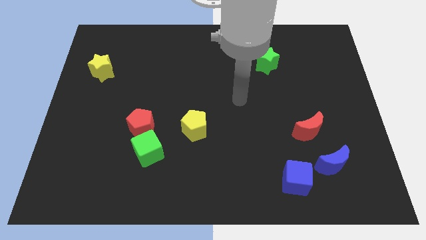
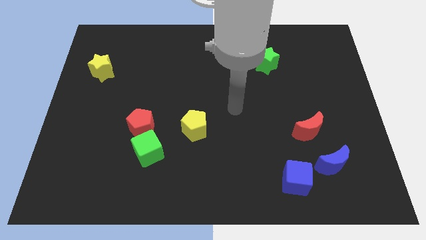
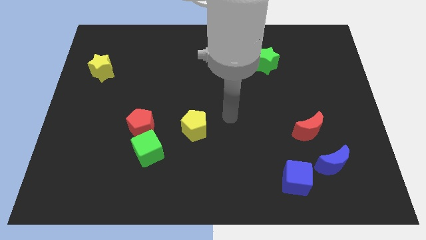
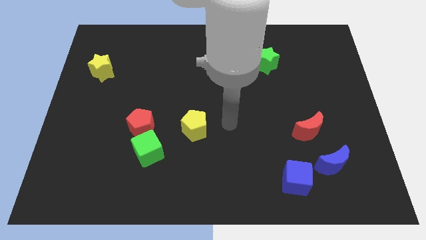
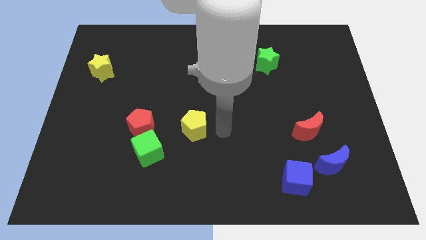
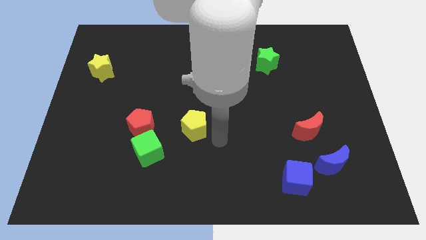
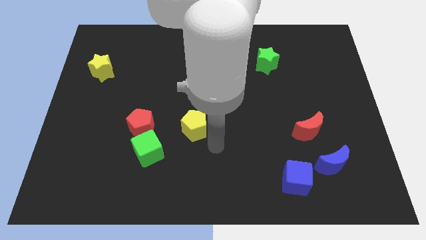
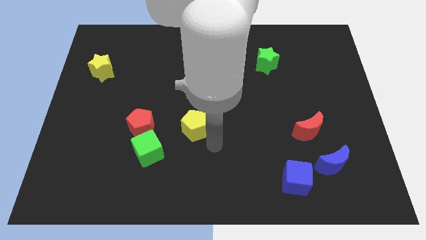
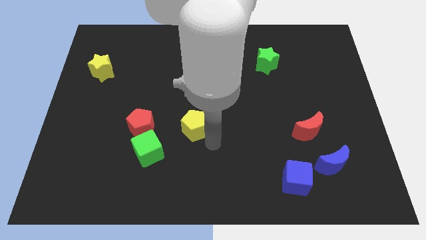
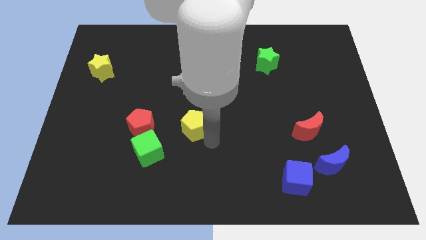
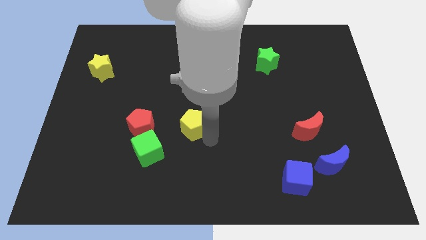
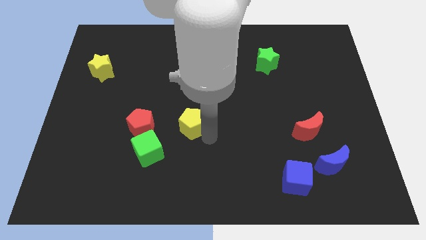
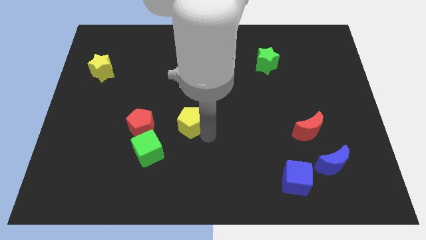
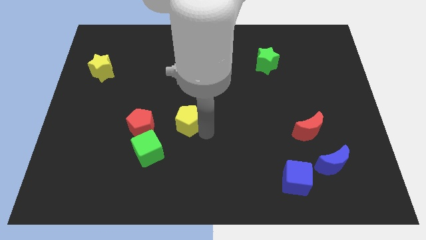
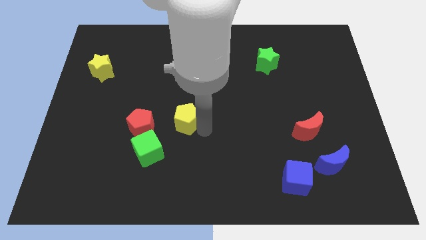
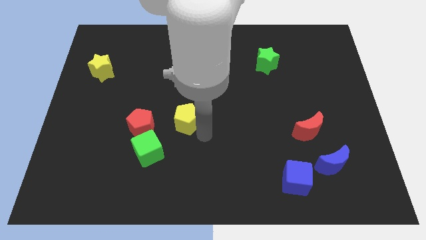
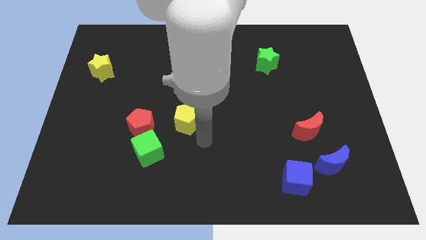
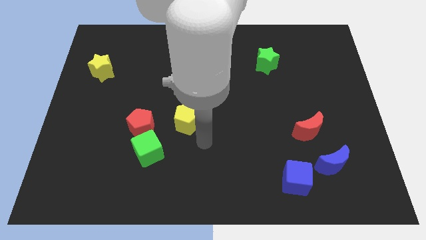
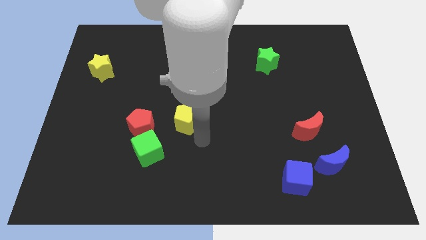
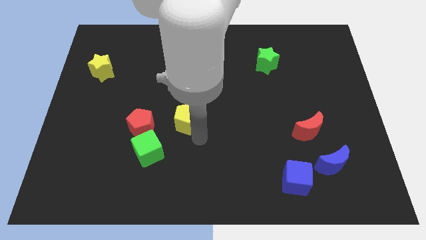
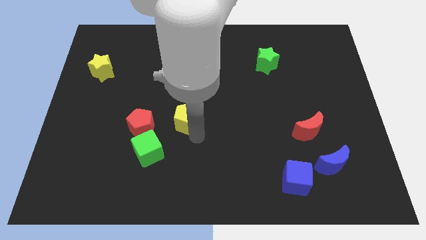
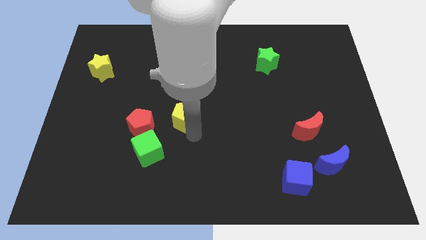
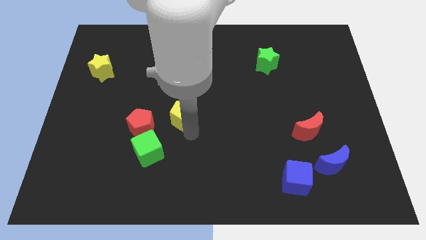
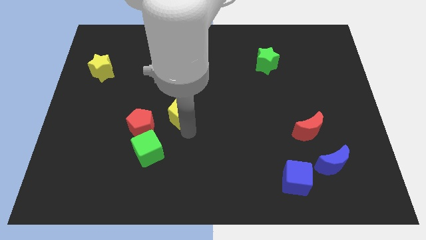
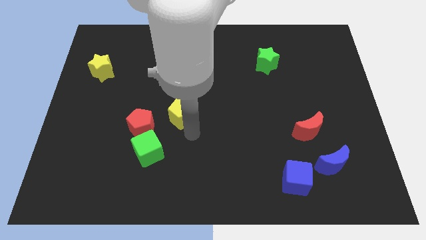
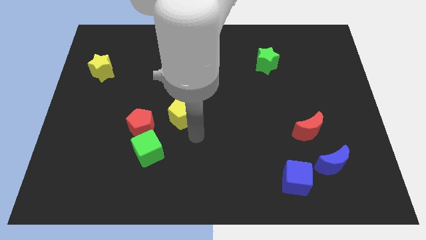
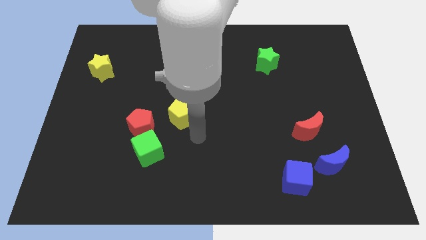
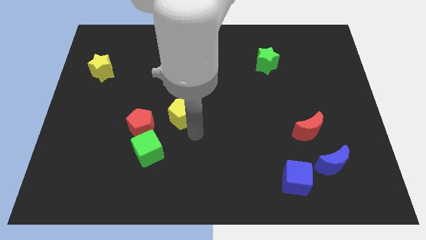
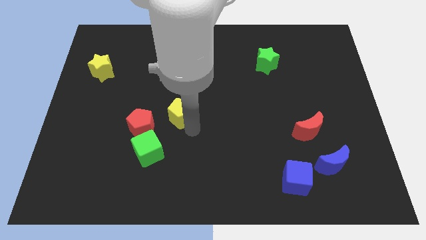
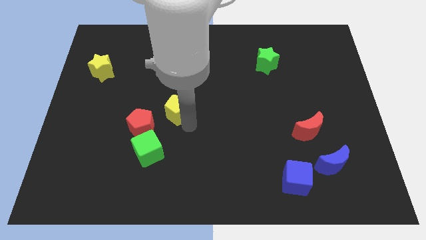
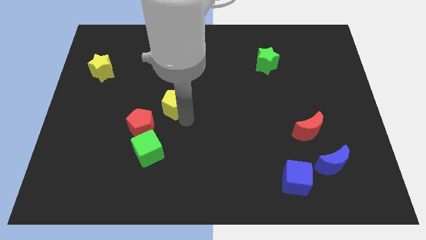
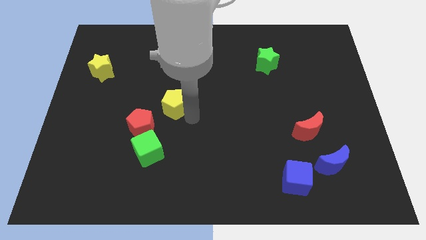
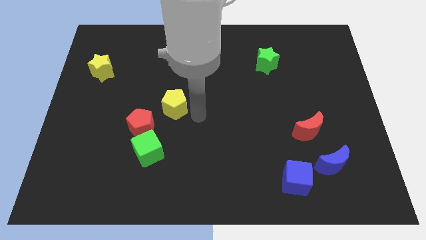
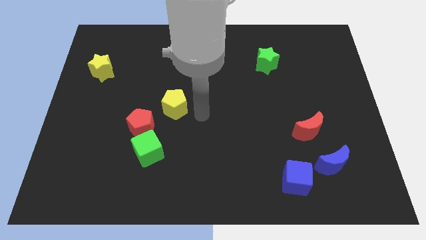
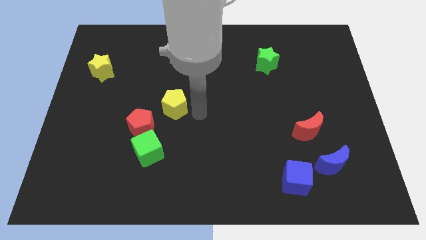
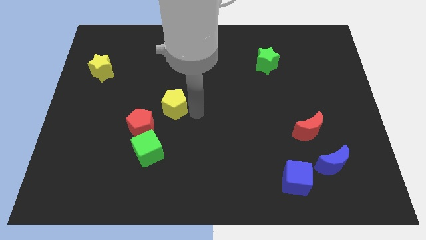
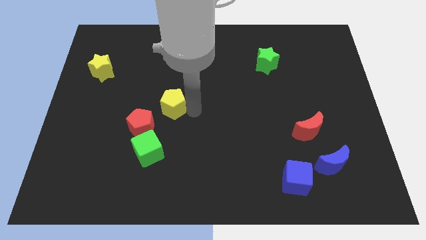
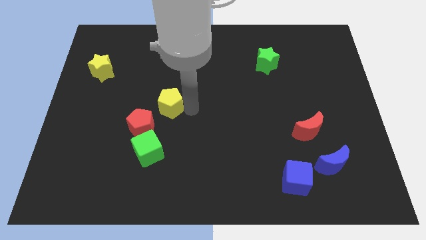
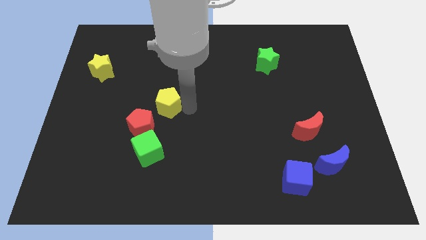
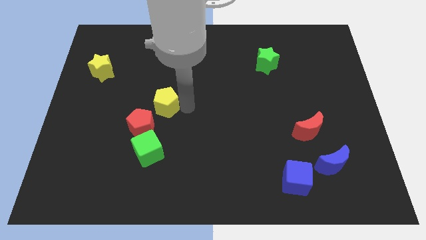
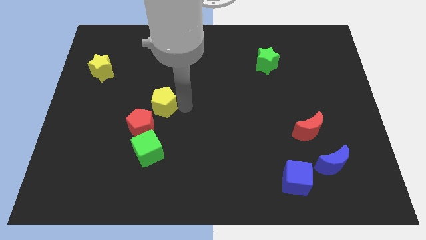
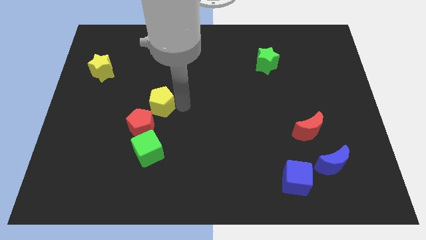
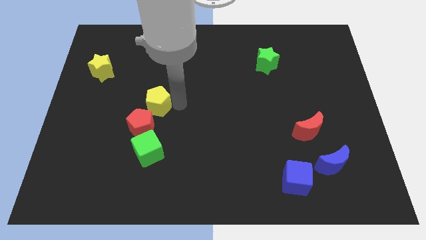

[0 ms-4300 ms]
slightly push the yellow pentagon left

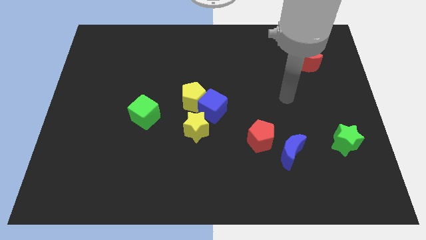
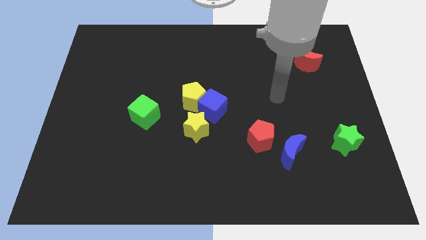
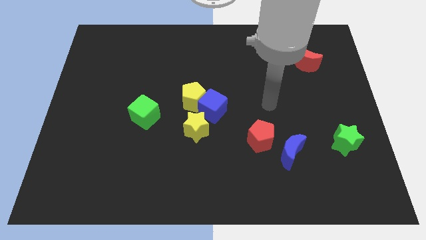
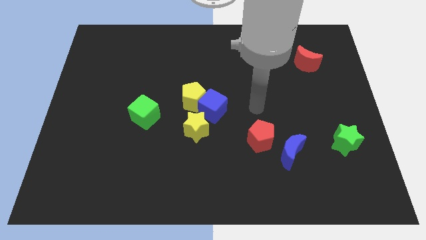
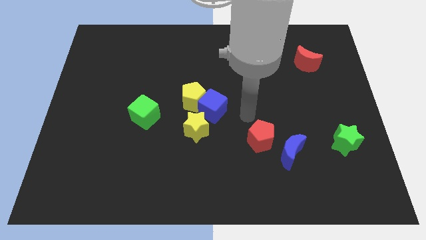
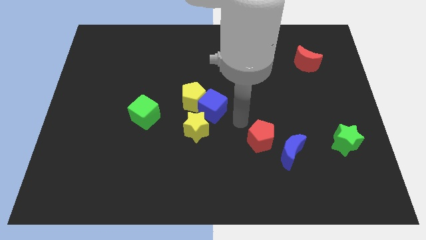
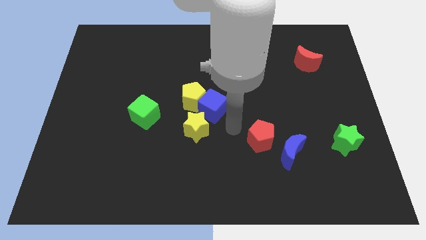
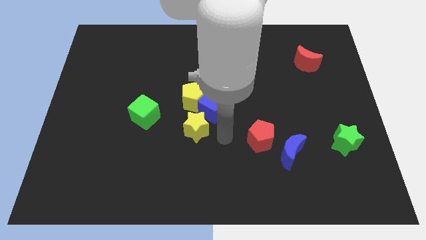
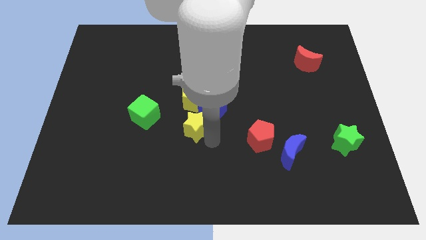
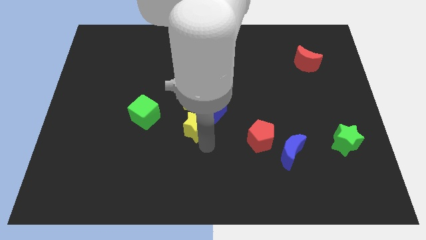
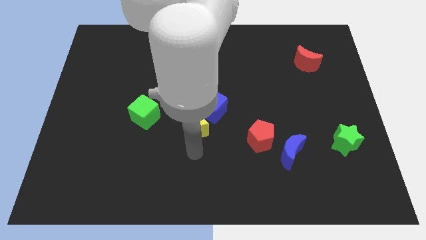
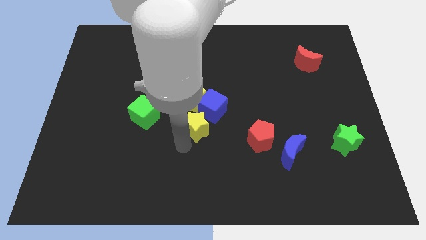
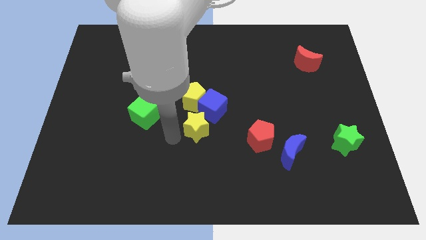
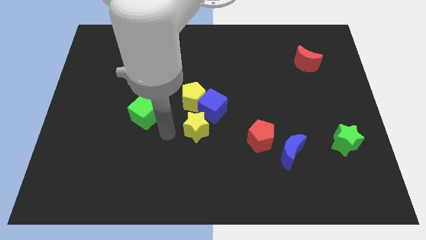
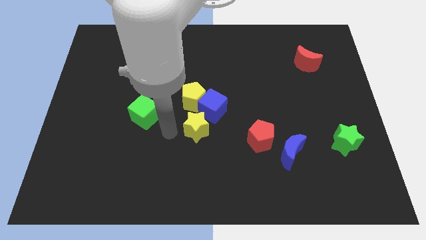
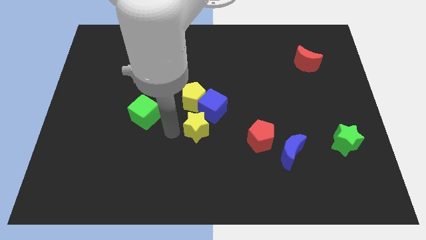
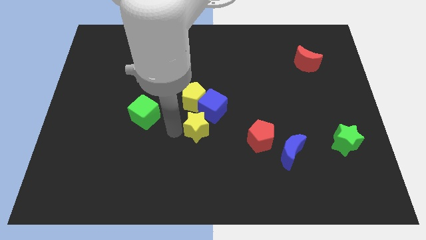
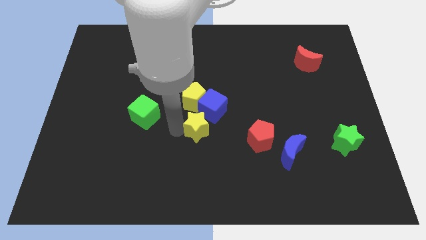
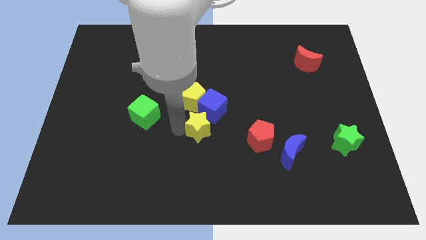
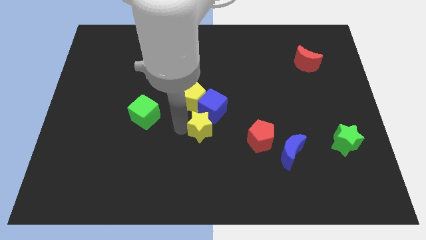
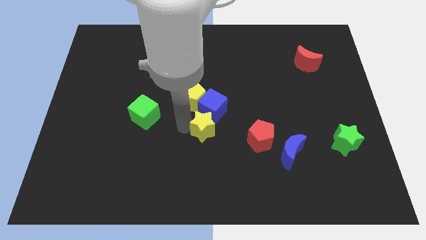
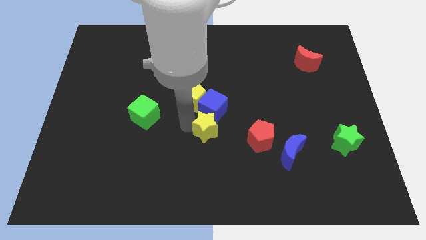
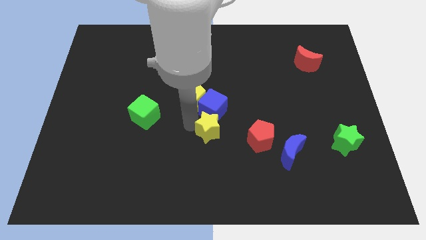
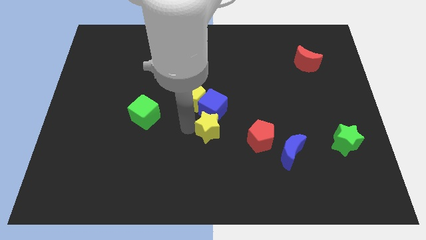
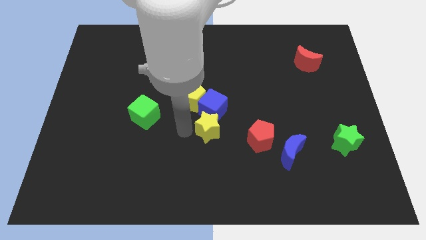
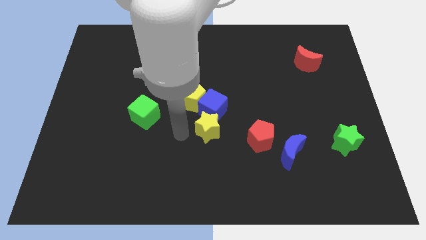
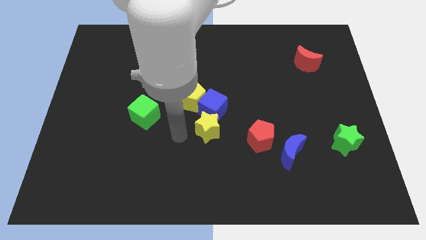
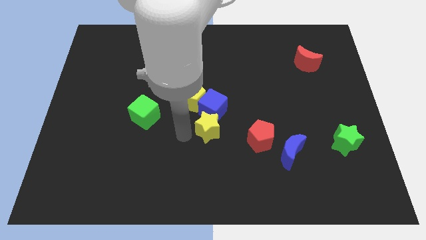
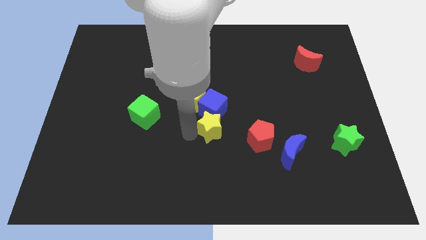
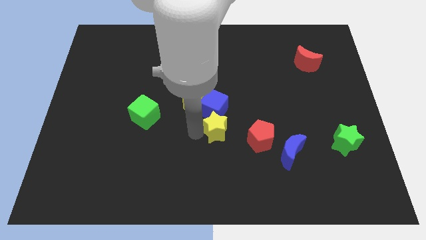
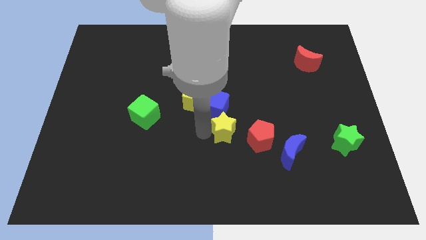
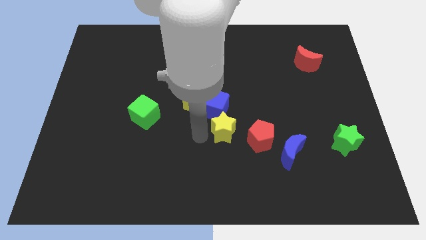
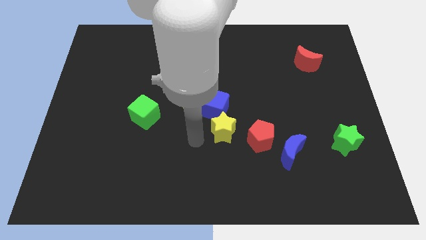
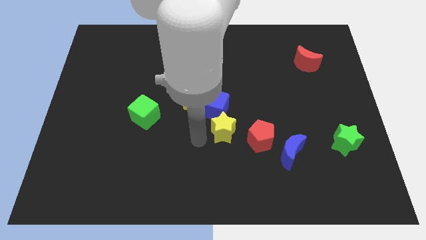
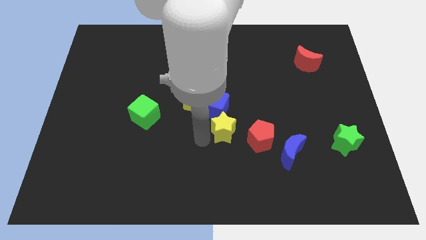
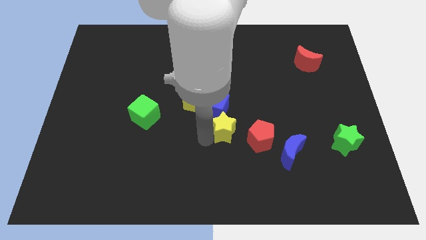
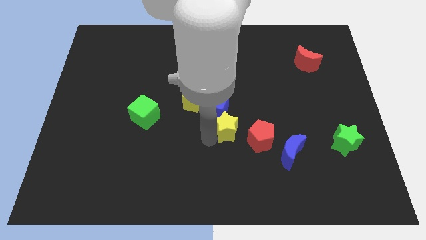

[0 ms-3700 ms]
slightly slide the yellow star to the right

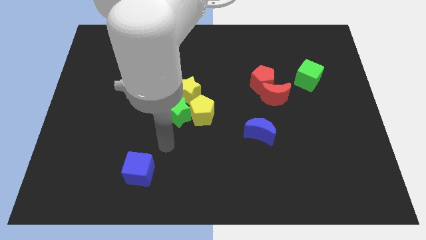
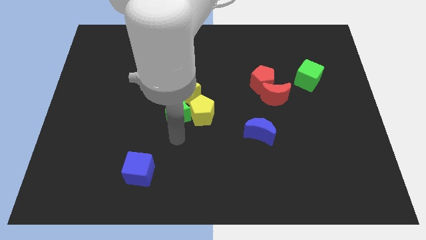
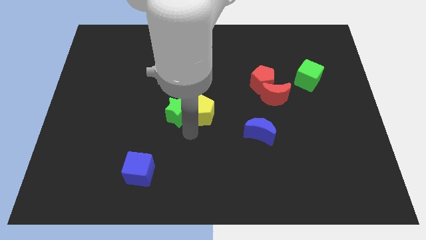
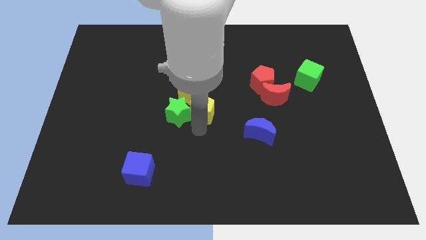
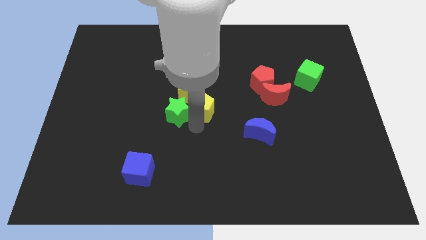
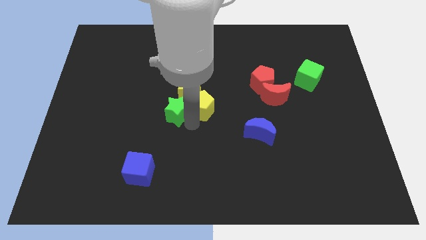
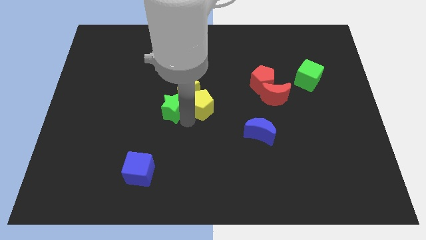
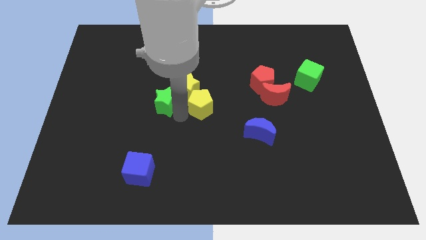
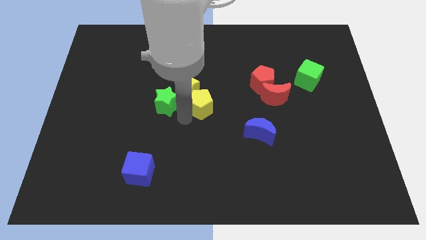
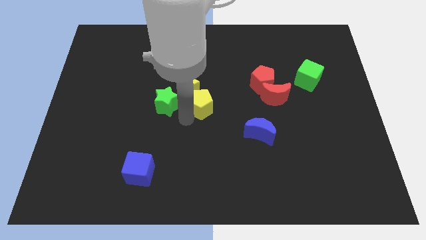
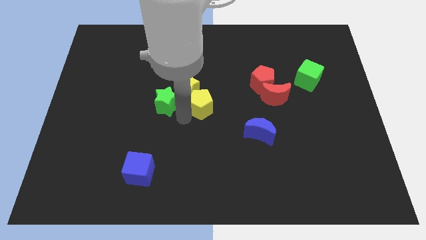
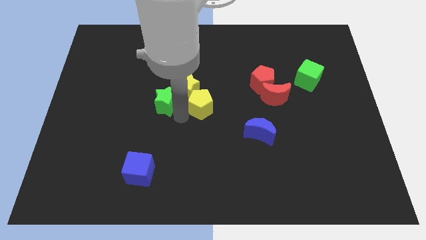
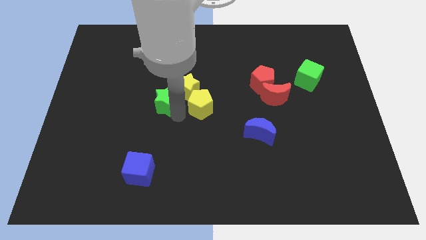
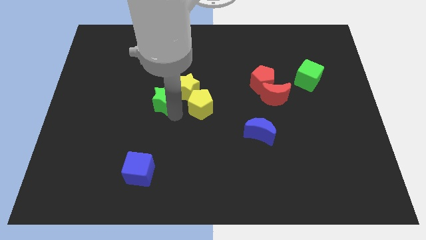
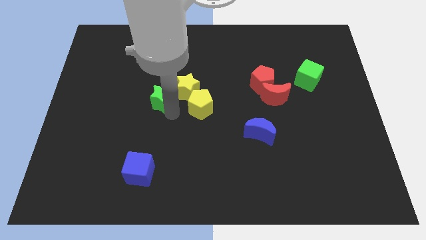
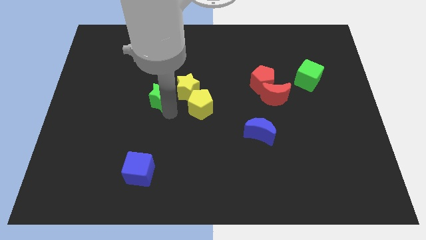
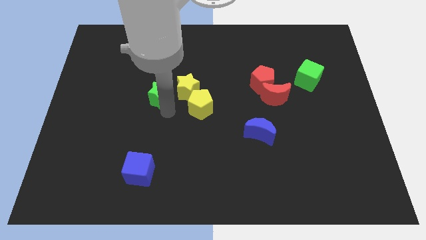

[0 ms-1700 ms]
push the green star upwards and to the left diagonally a bit
